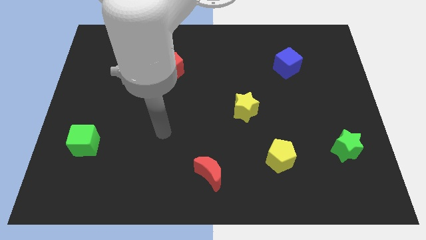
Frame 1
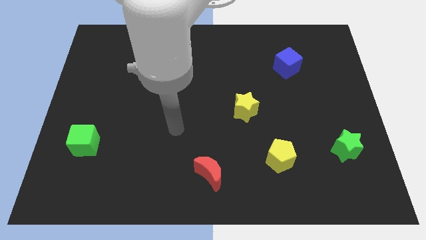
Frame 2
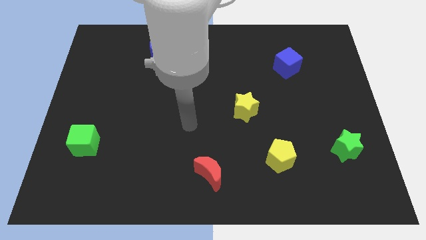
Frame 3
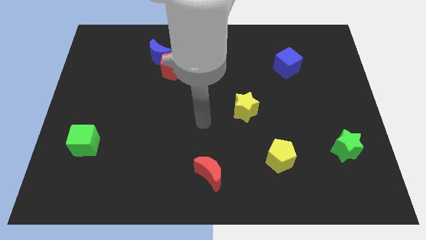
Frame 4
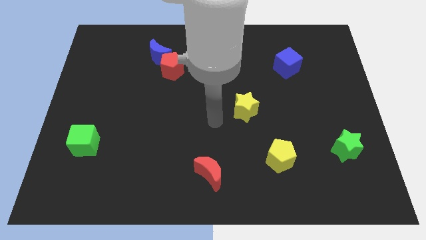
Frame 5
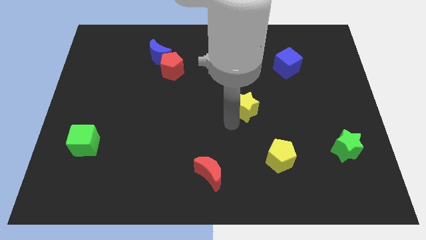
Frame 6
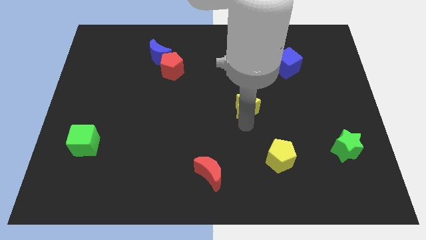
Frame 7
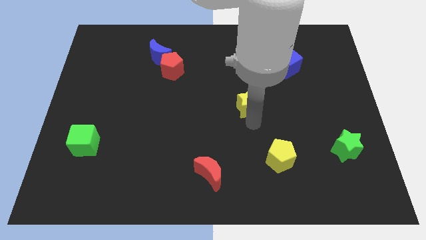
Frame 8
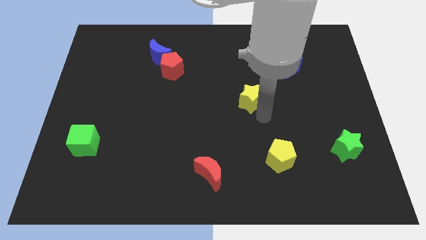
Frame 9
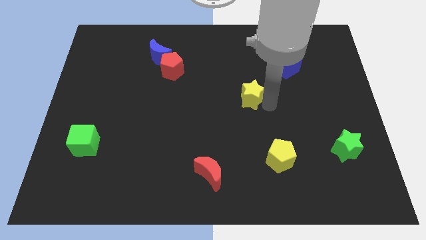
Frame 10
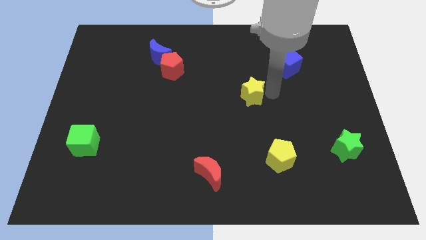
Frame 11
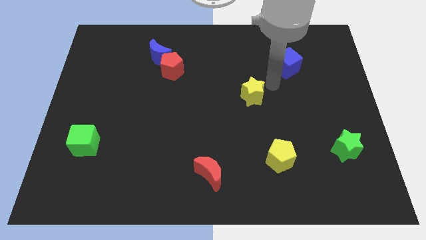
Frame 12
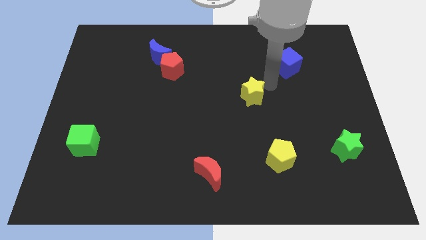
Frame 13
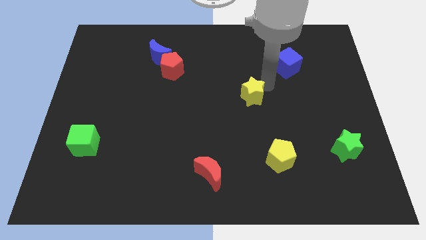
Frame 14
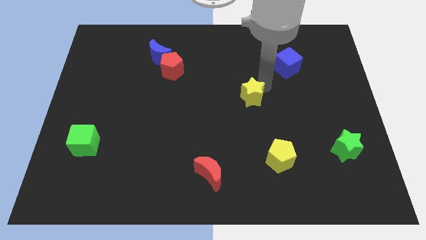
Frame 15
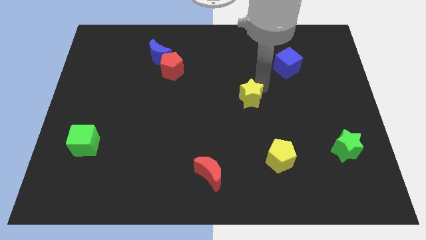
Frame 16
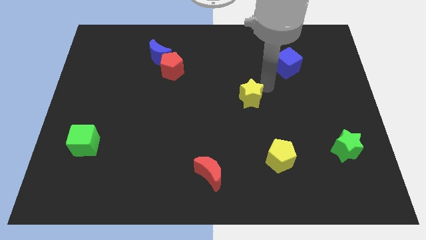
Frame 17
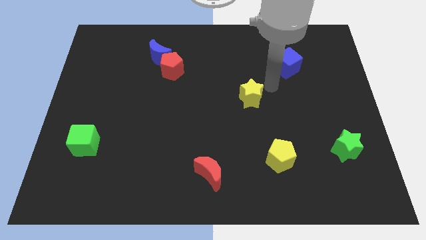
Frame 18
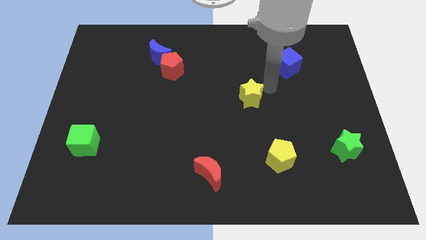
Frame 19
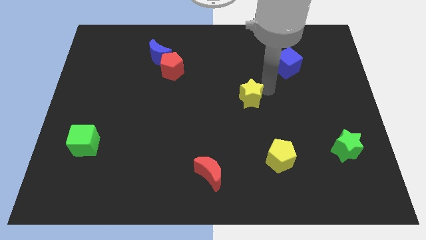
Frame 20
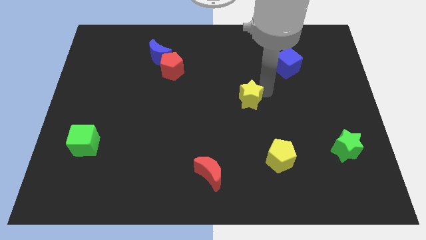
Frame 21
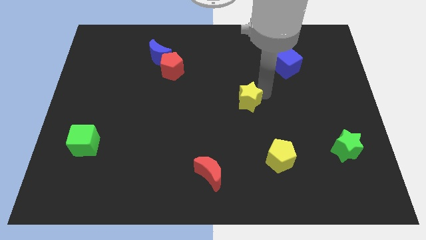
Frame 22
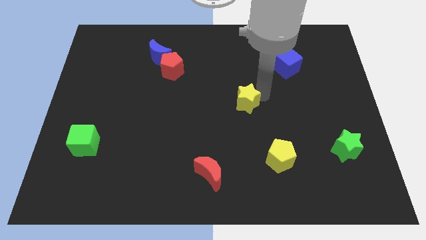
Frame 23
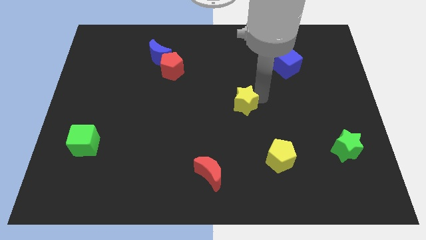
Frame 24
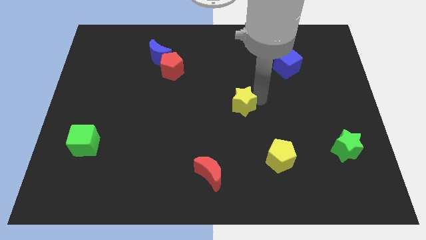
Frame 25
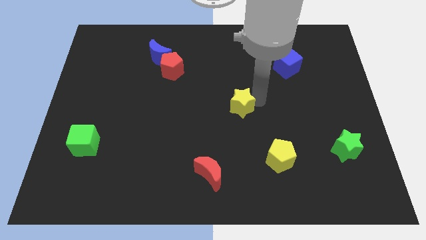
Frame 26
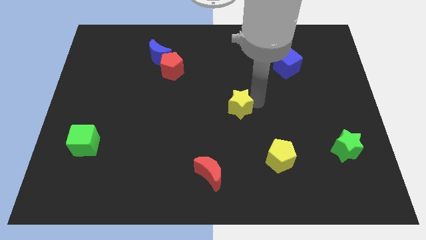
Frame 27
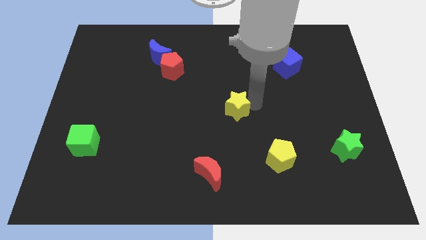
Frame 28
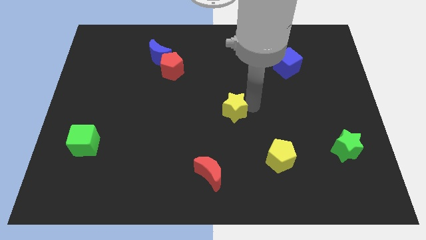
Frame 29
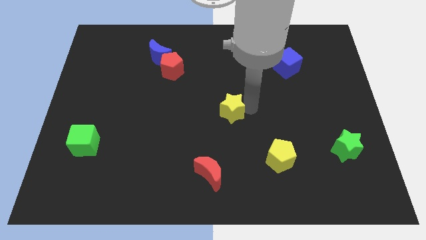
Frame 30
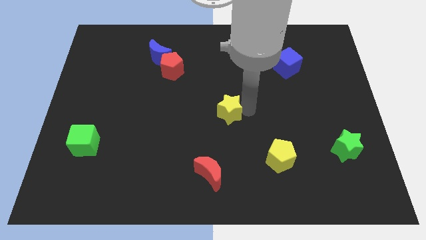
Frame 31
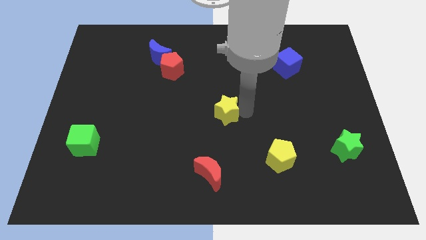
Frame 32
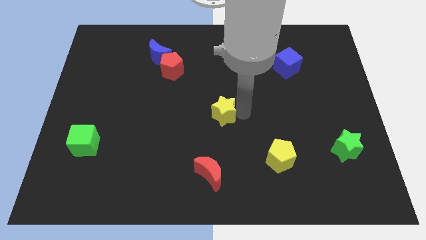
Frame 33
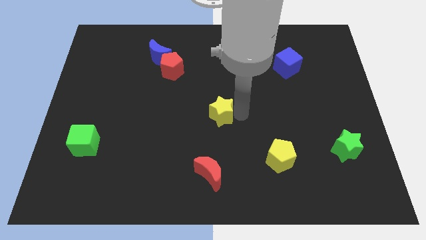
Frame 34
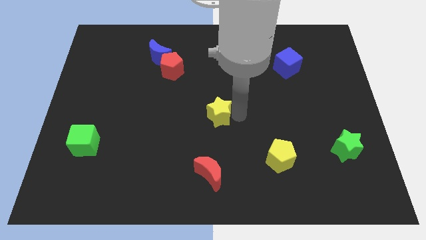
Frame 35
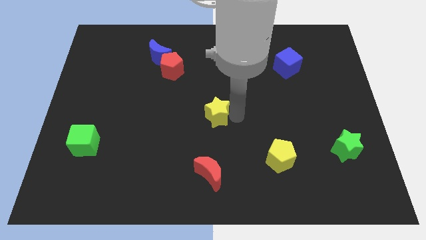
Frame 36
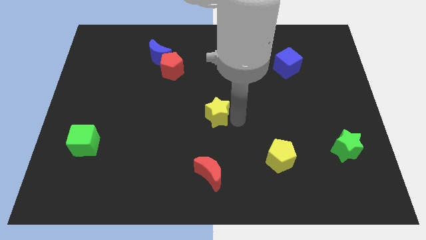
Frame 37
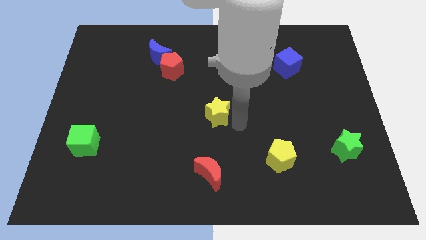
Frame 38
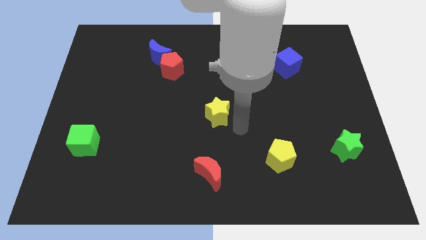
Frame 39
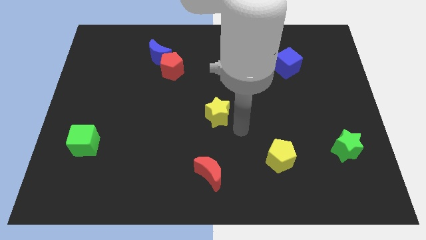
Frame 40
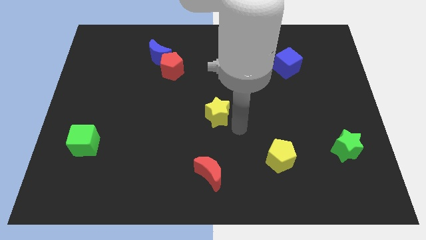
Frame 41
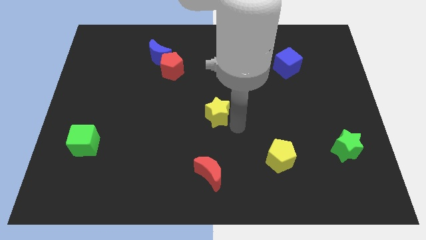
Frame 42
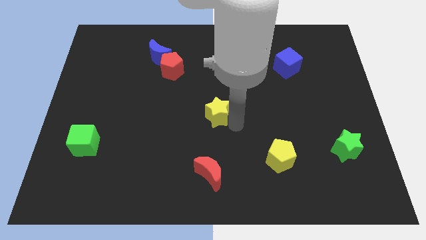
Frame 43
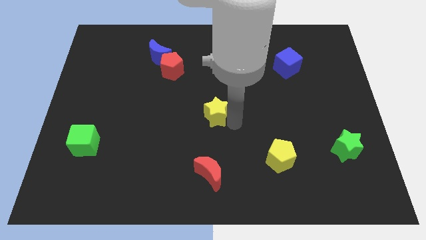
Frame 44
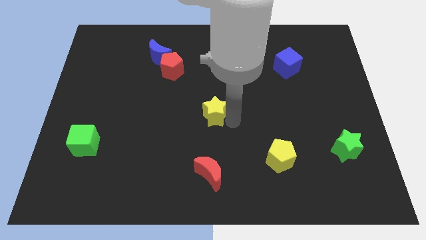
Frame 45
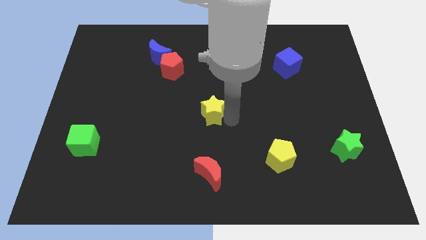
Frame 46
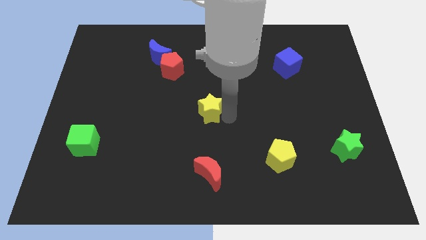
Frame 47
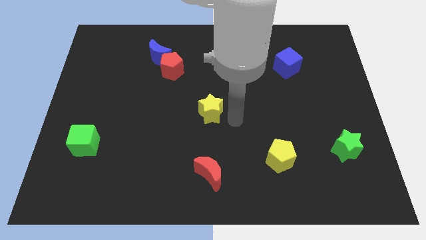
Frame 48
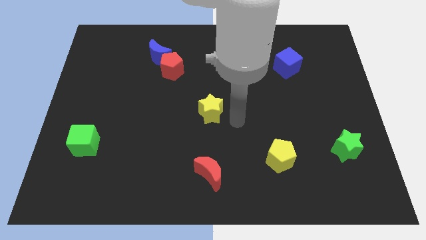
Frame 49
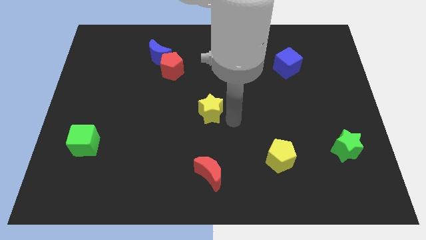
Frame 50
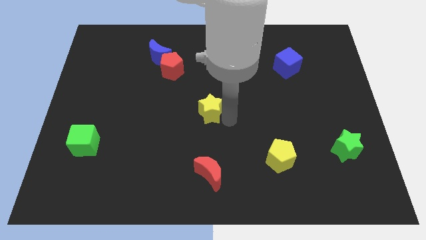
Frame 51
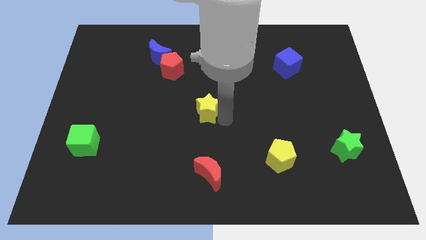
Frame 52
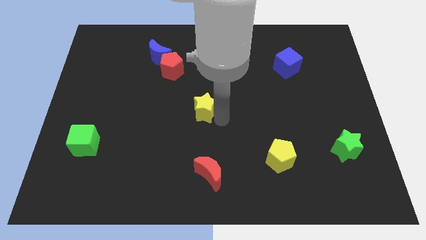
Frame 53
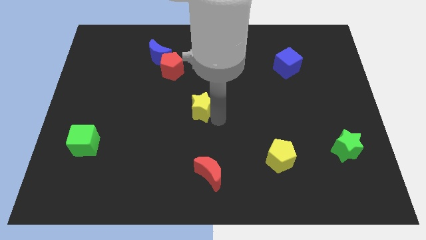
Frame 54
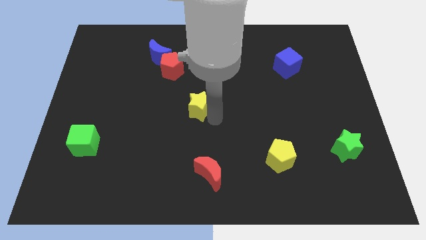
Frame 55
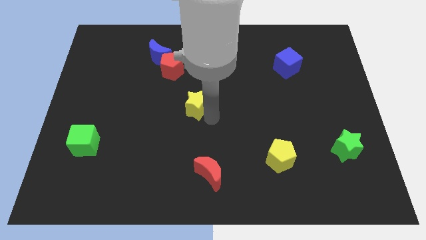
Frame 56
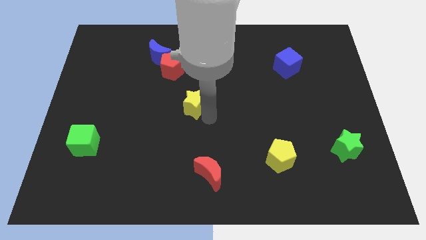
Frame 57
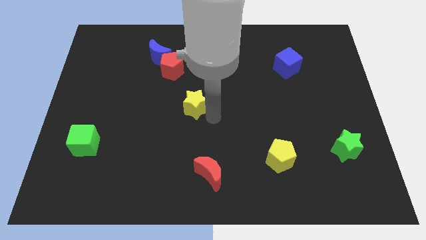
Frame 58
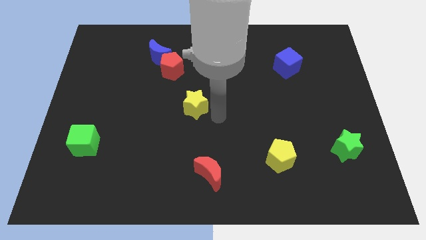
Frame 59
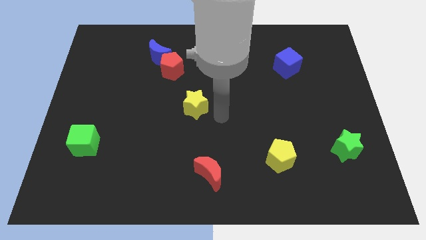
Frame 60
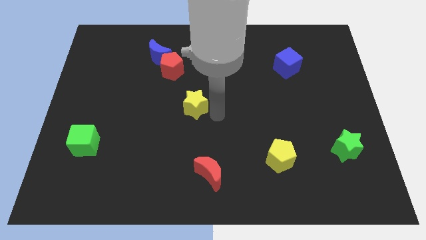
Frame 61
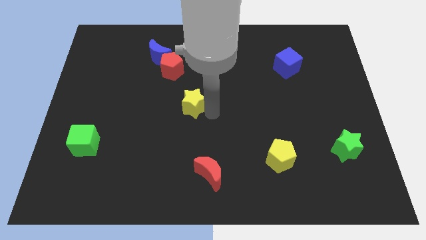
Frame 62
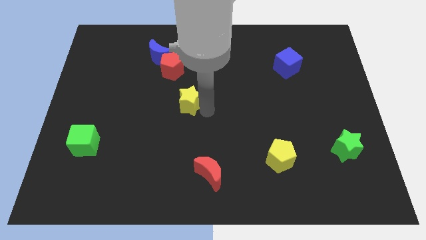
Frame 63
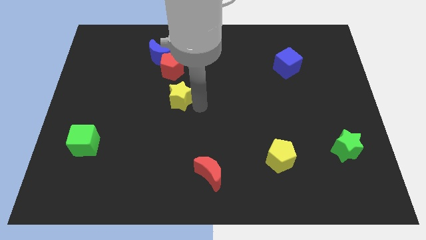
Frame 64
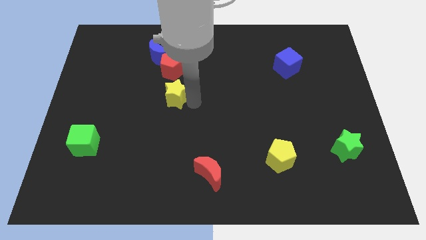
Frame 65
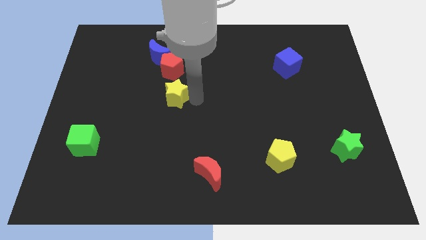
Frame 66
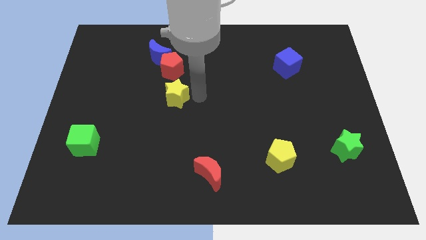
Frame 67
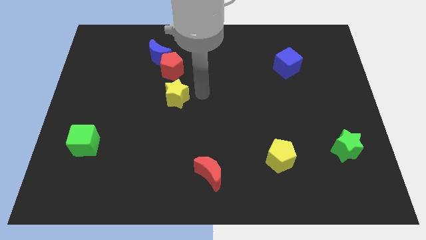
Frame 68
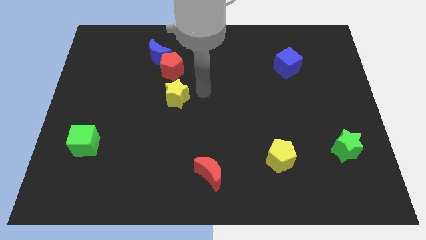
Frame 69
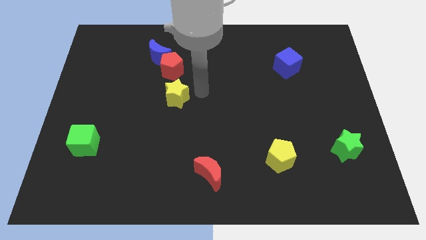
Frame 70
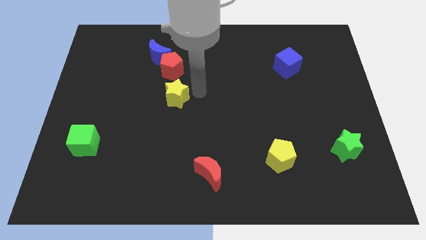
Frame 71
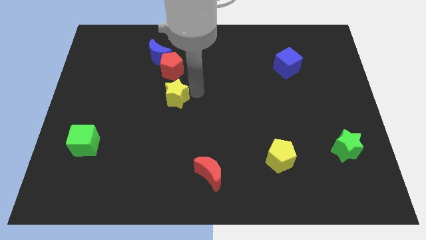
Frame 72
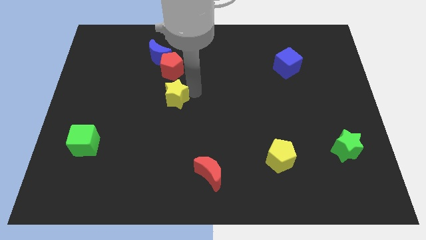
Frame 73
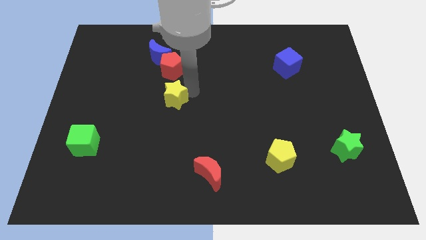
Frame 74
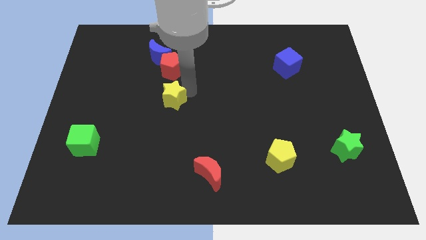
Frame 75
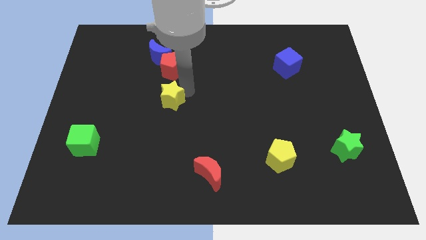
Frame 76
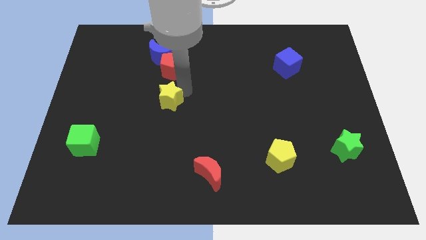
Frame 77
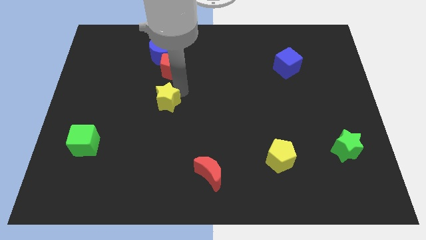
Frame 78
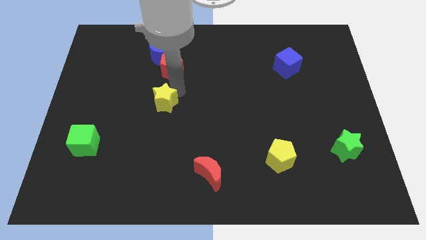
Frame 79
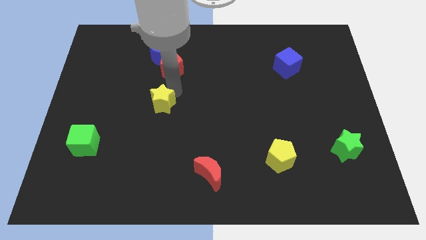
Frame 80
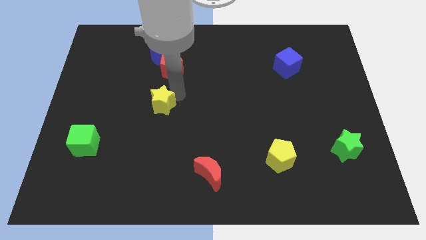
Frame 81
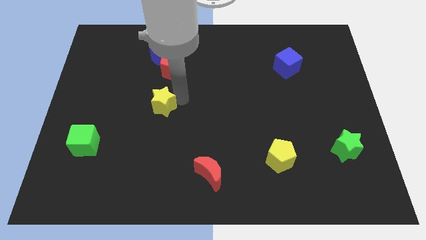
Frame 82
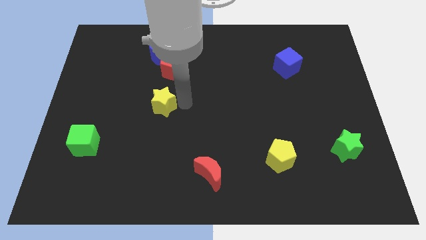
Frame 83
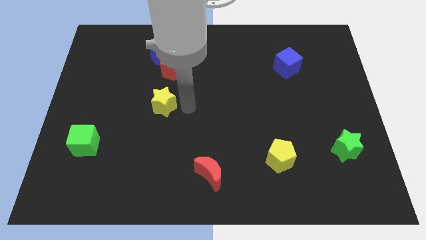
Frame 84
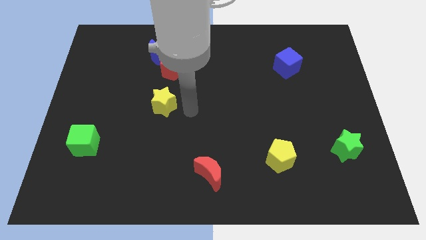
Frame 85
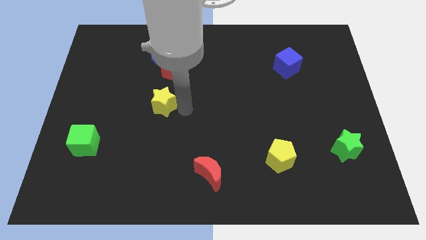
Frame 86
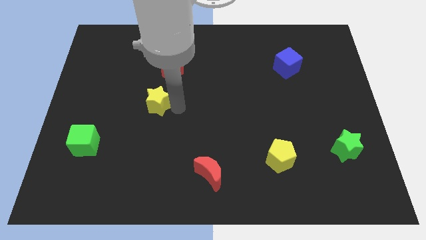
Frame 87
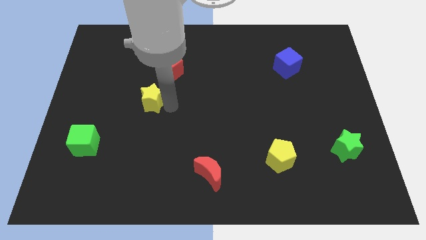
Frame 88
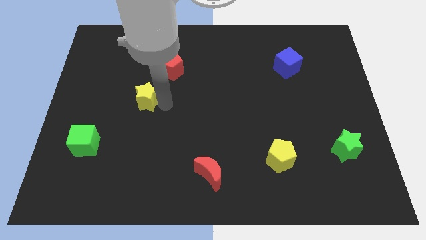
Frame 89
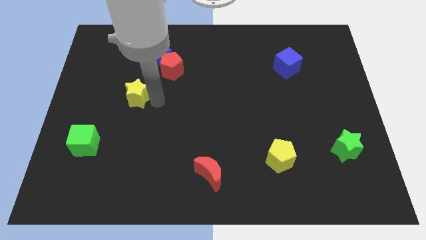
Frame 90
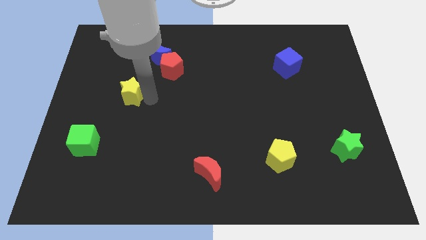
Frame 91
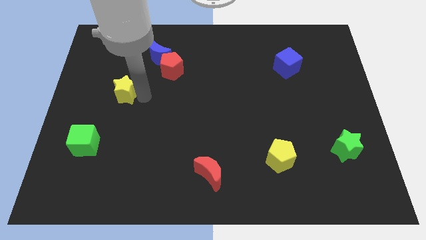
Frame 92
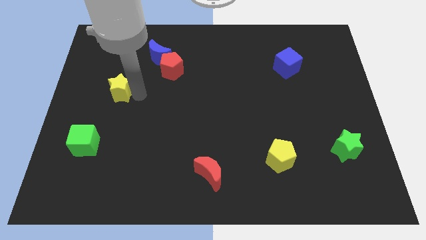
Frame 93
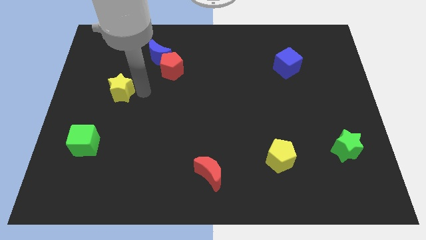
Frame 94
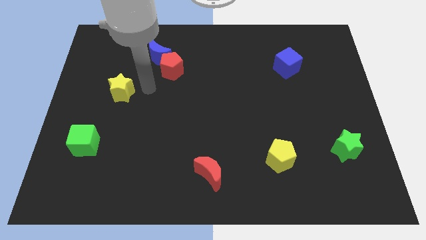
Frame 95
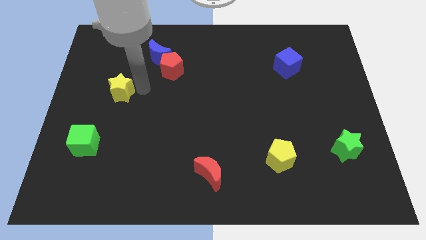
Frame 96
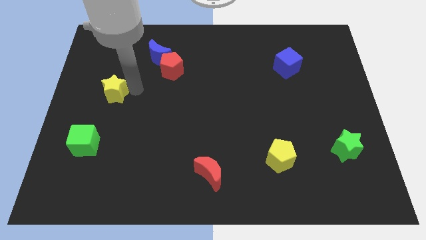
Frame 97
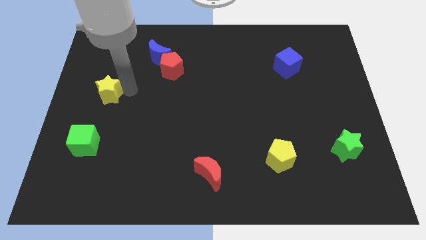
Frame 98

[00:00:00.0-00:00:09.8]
slide the yellow star to the left side
